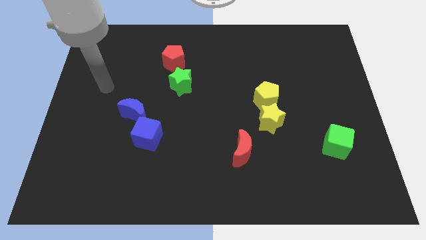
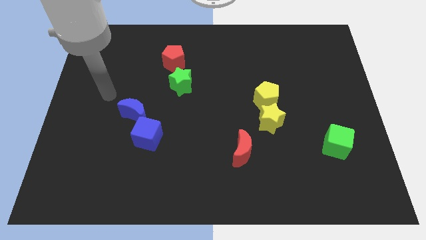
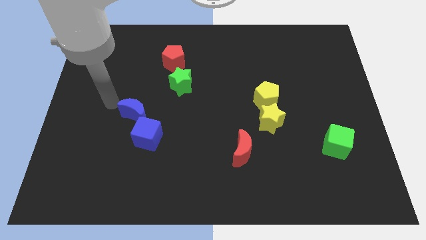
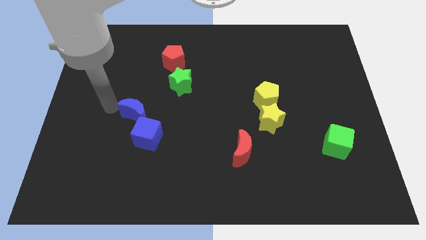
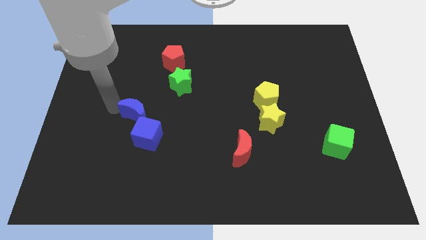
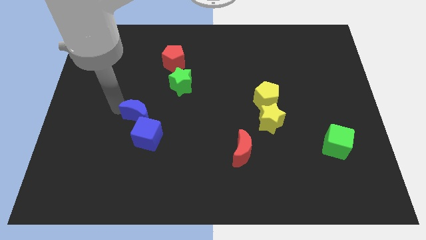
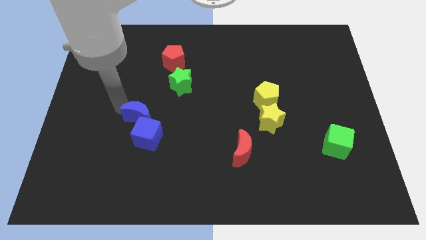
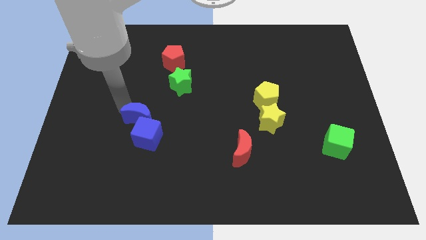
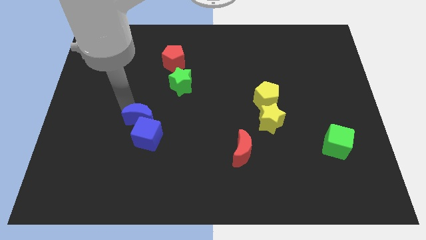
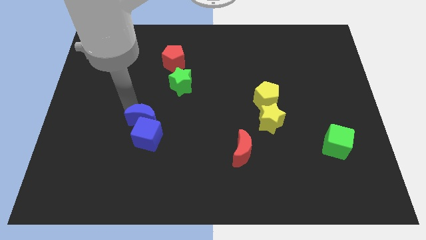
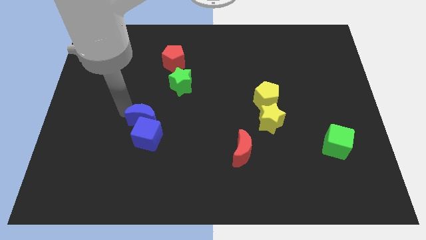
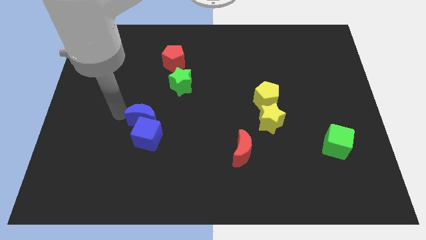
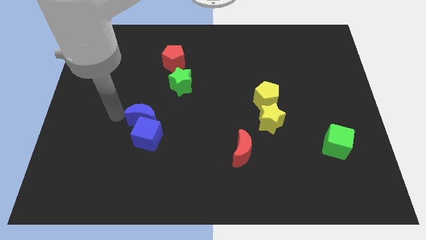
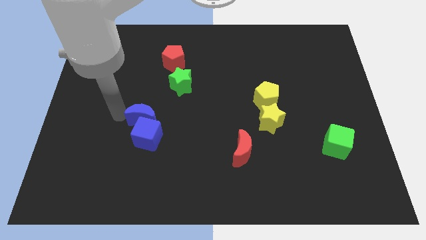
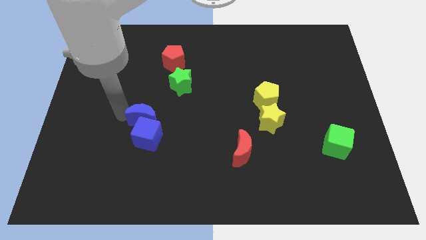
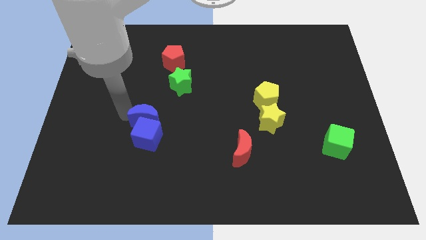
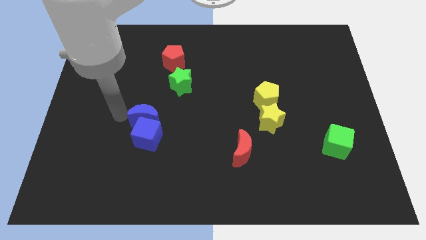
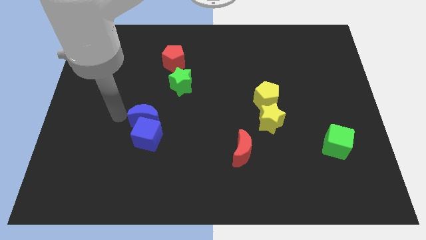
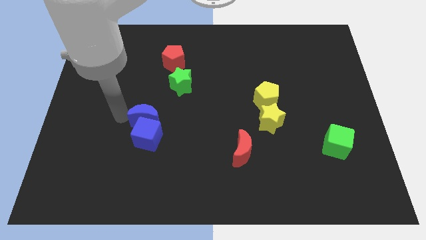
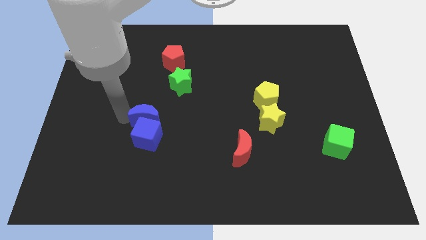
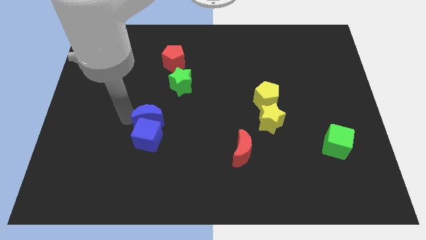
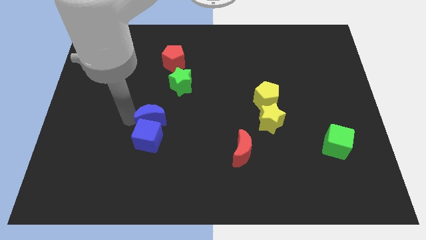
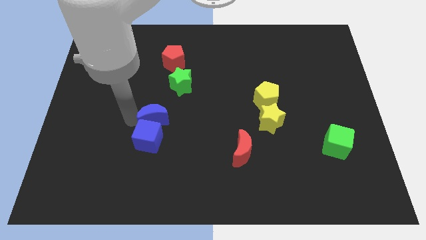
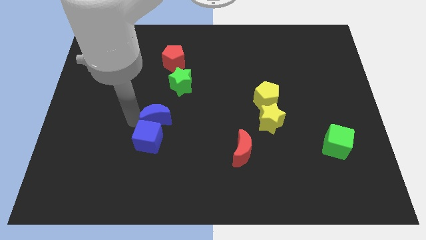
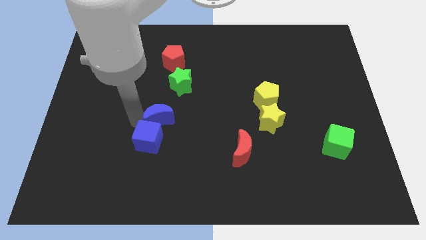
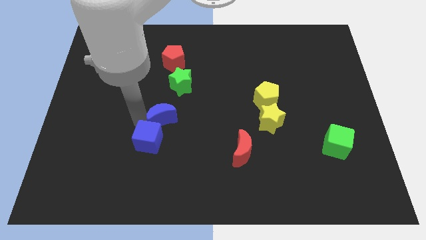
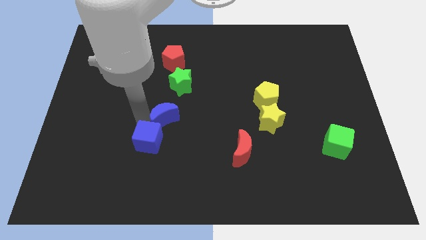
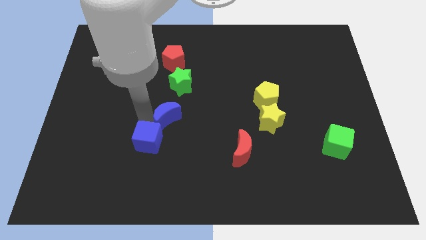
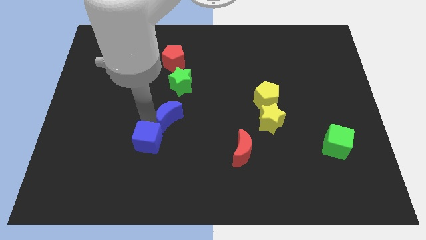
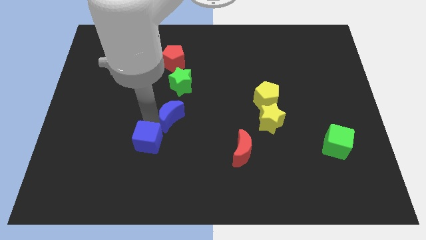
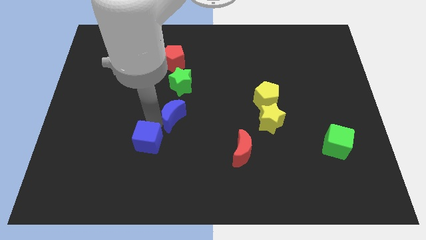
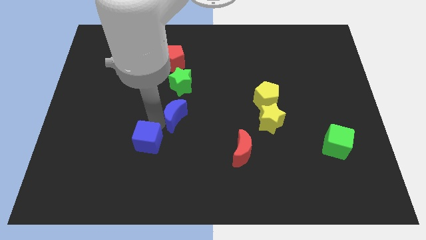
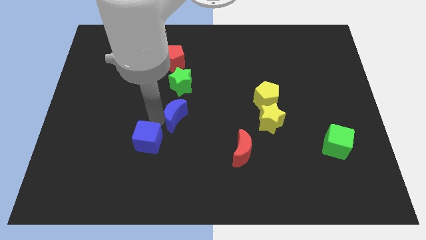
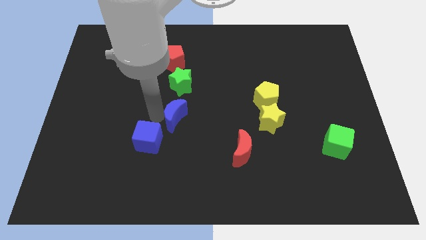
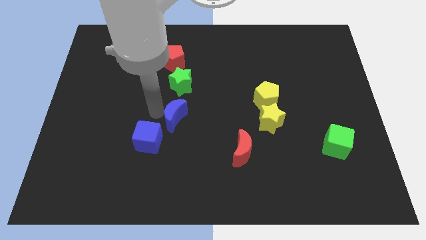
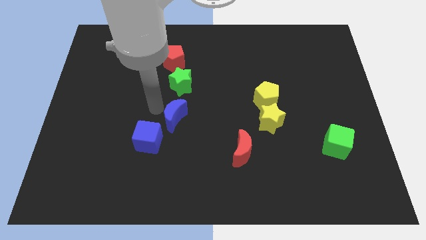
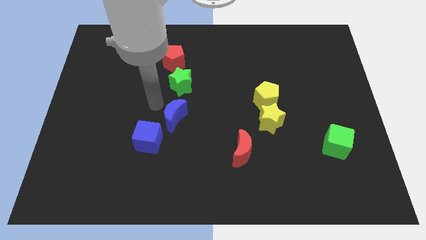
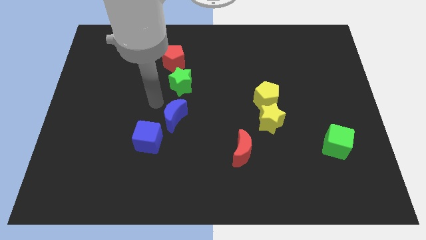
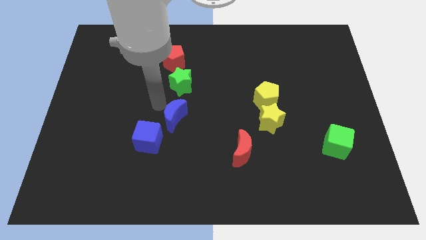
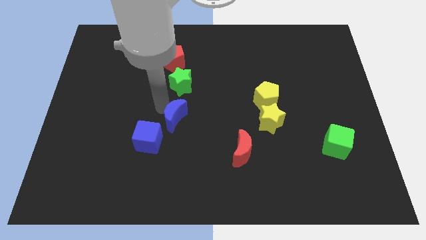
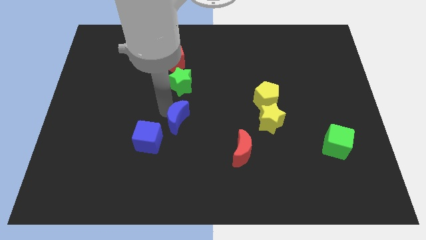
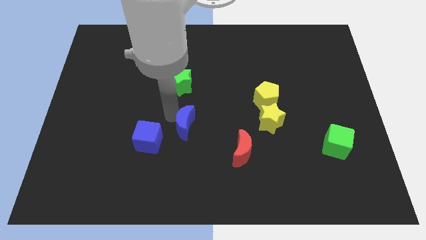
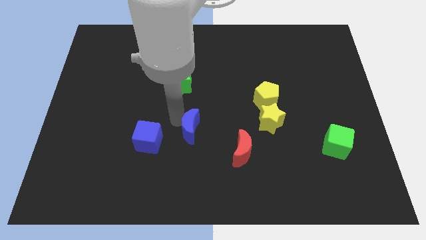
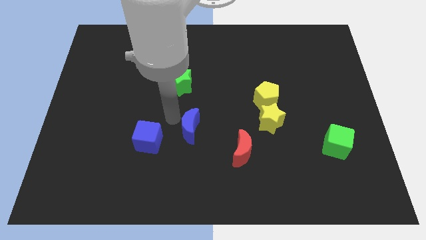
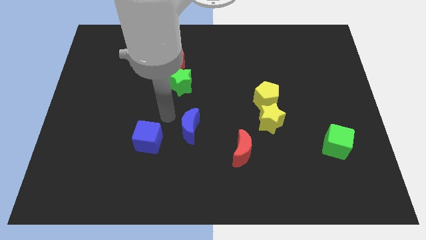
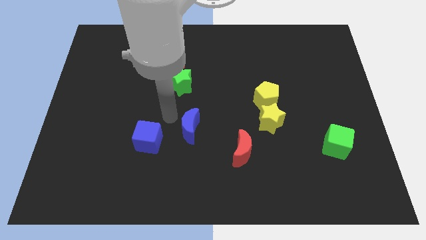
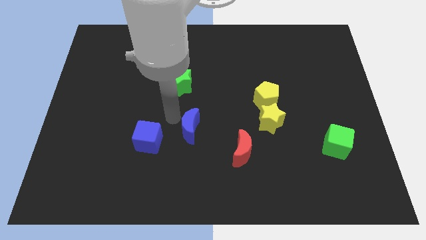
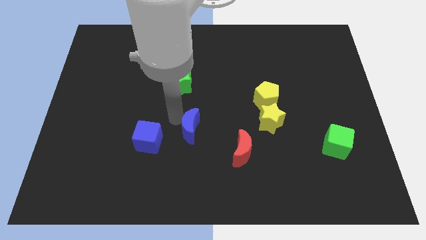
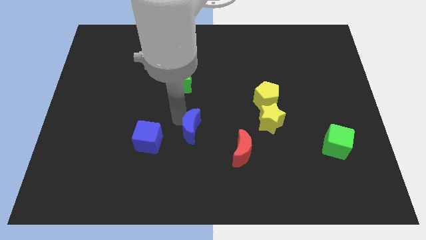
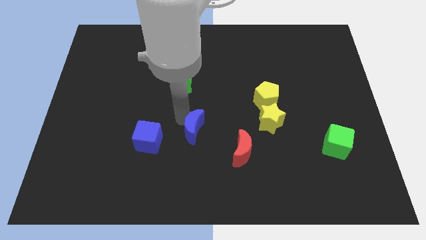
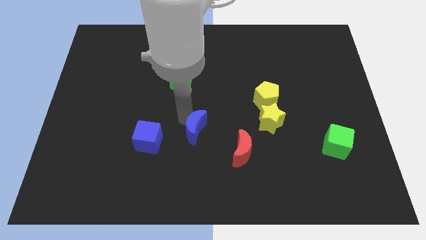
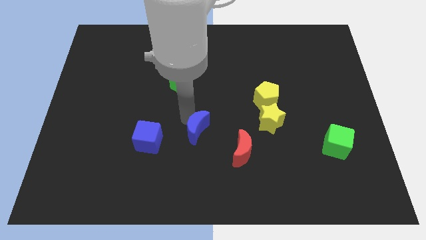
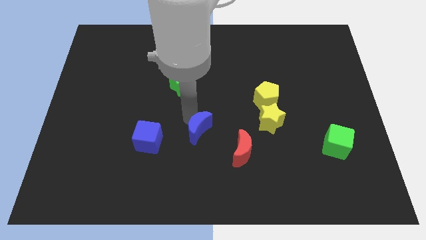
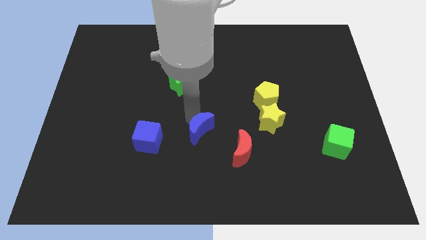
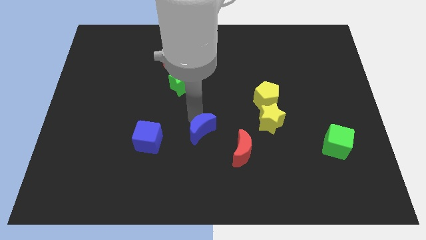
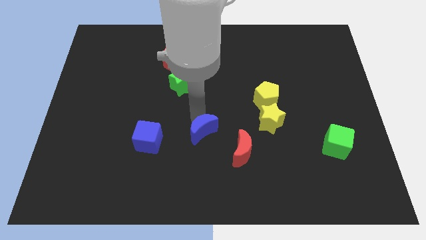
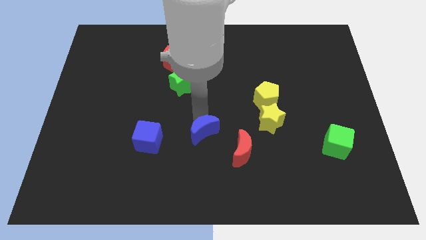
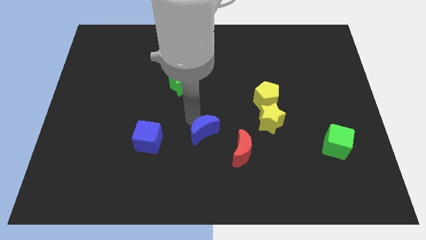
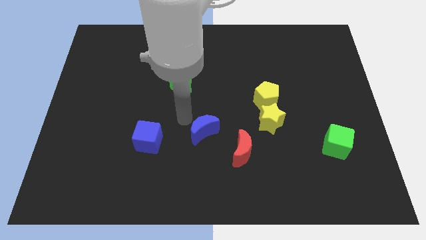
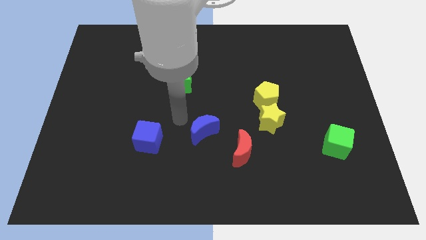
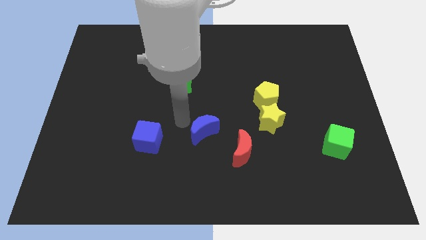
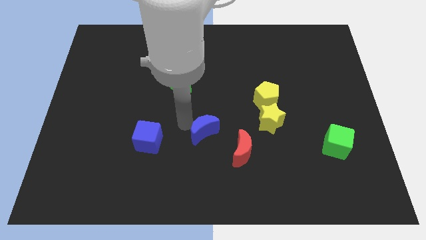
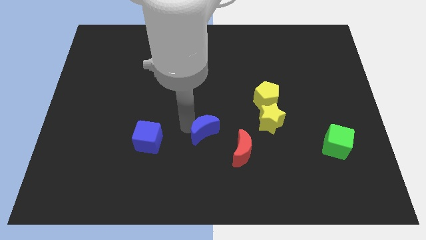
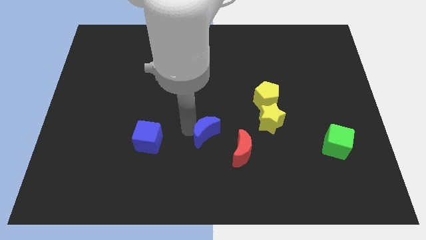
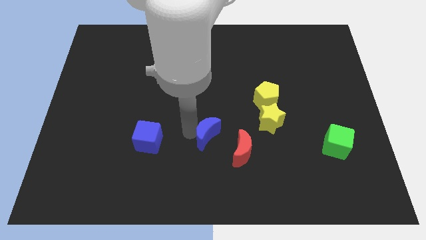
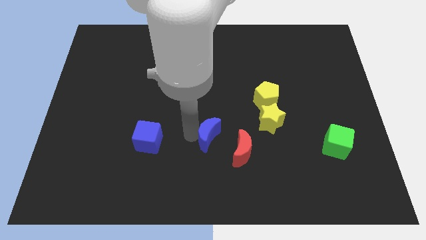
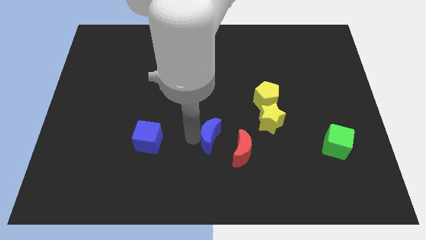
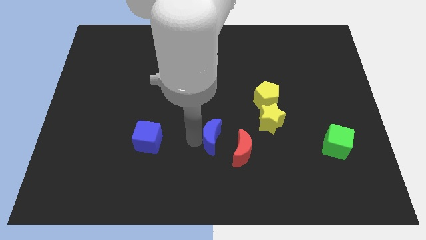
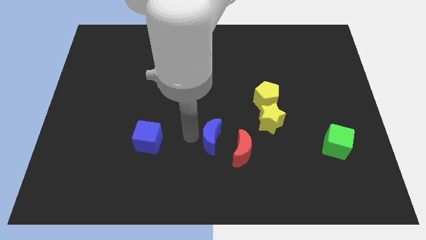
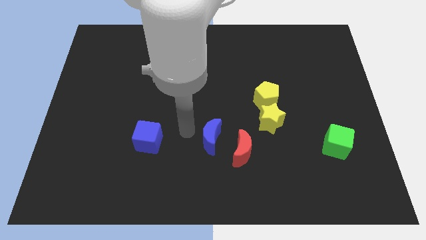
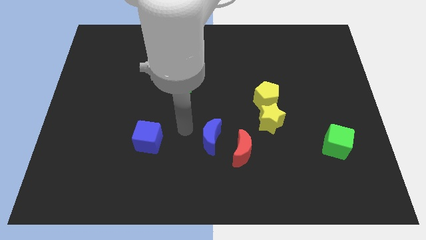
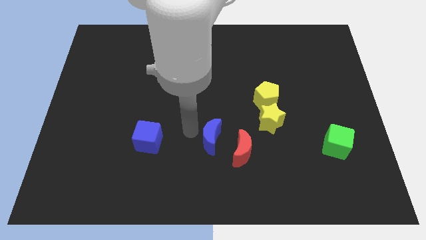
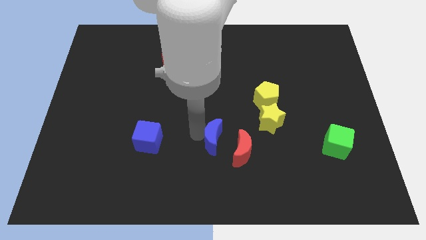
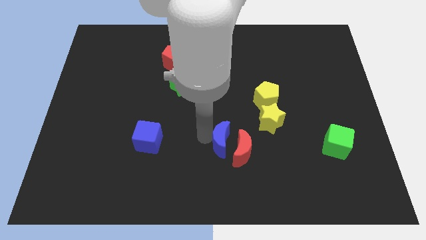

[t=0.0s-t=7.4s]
put the blue moon towards the red moon

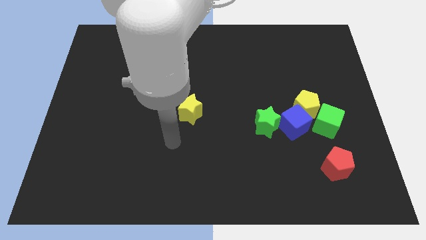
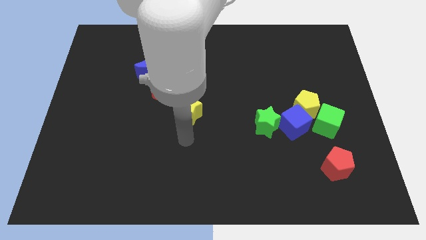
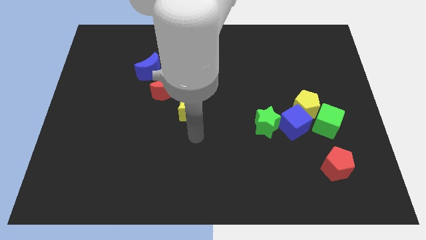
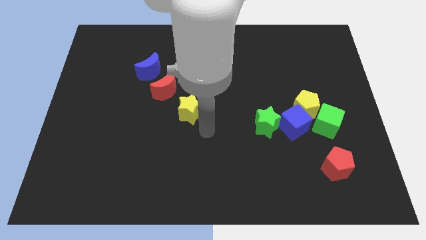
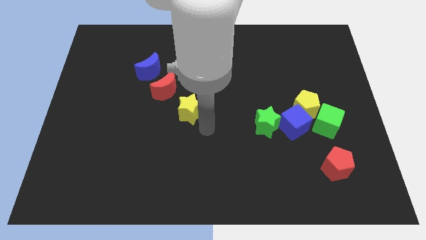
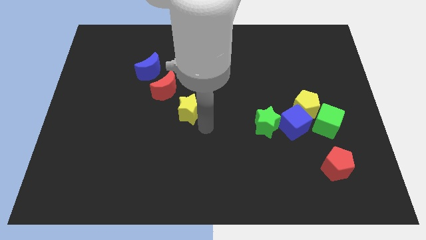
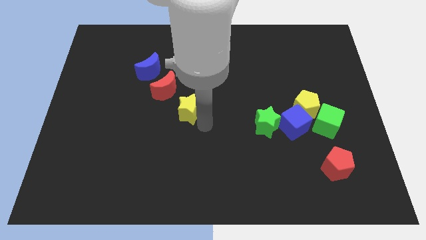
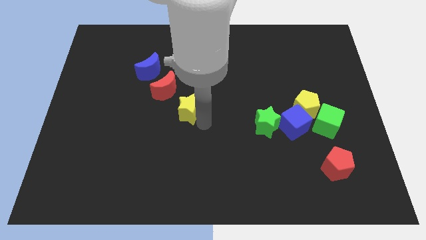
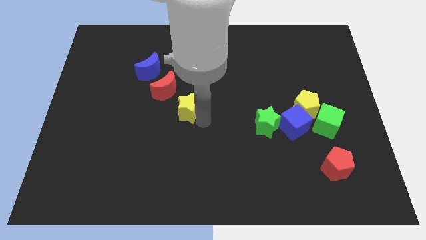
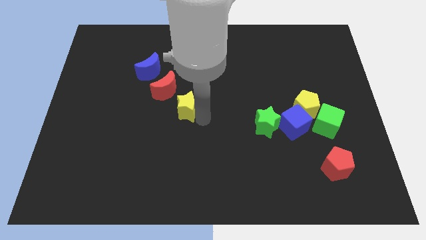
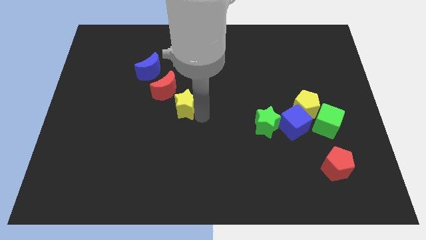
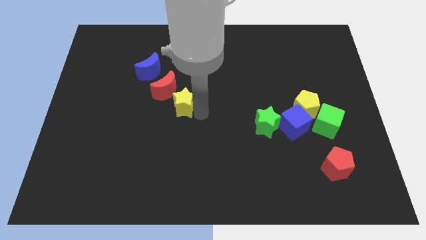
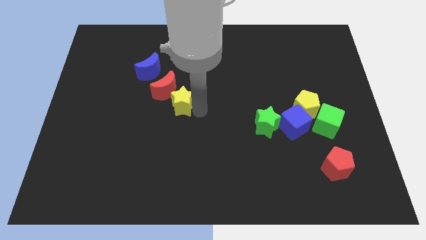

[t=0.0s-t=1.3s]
push the yellow star to the red moon
